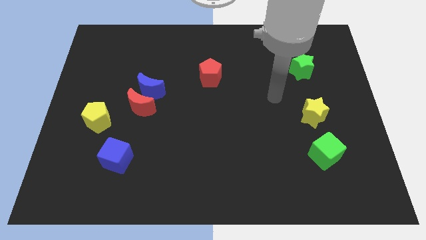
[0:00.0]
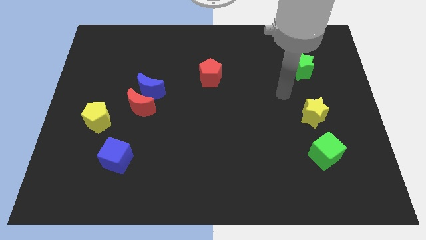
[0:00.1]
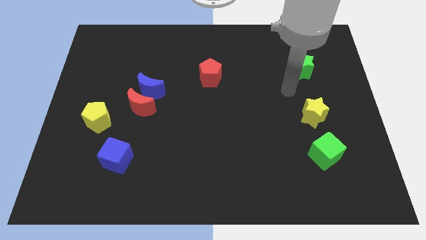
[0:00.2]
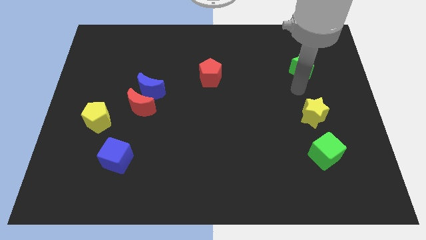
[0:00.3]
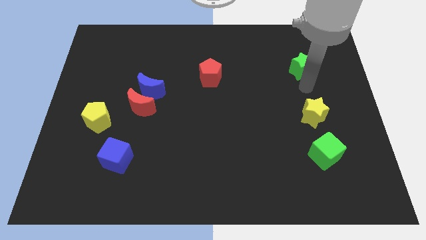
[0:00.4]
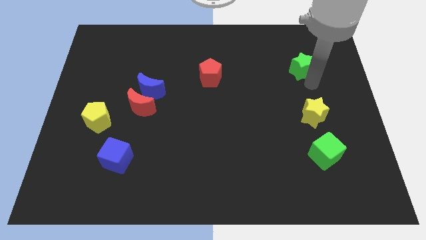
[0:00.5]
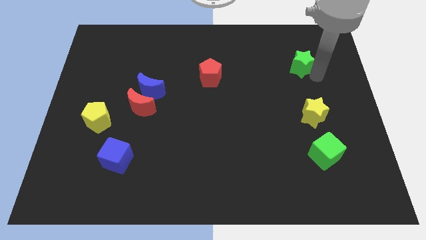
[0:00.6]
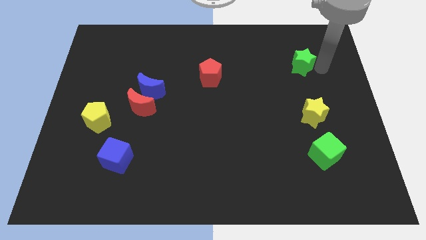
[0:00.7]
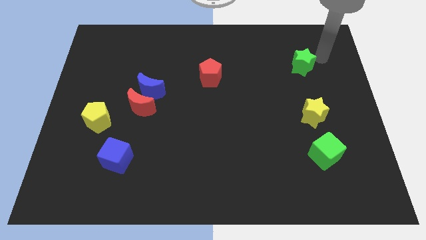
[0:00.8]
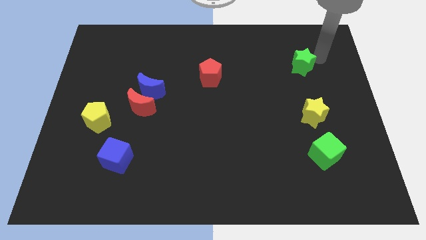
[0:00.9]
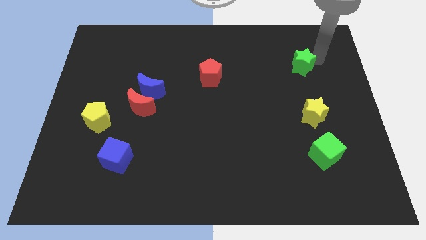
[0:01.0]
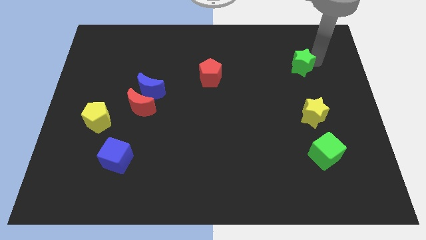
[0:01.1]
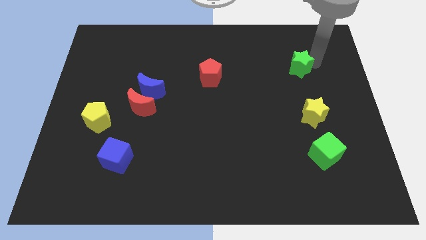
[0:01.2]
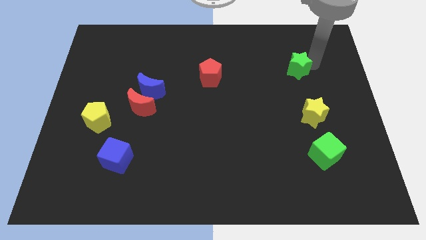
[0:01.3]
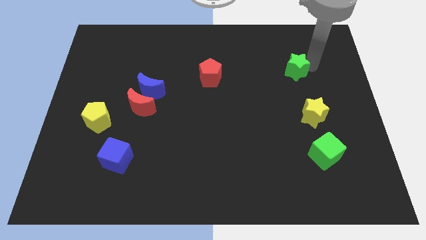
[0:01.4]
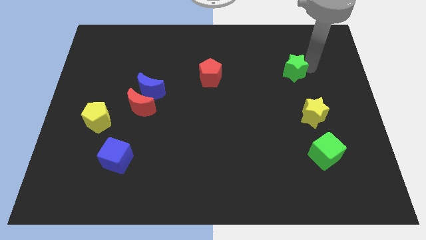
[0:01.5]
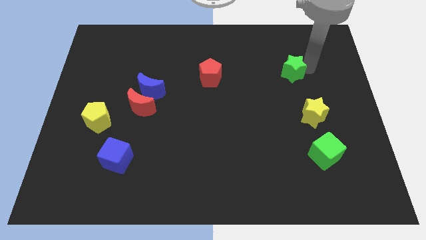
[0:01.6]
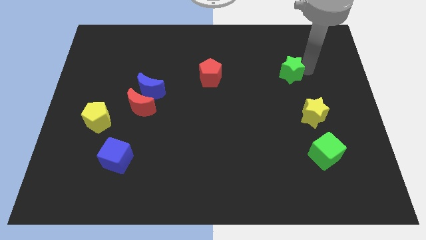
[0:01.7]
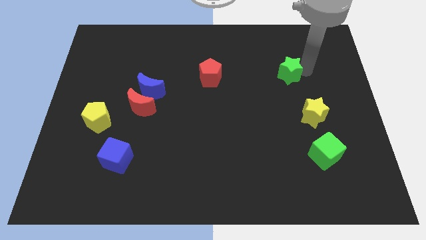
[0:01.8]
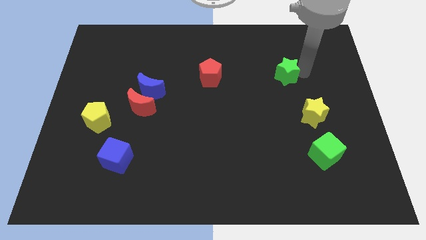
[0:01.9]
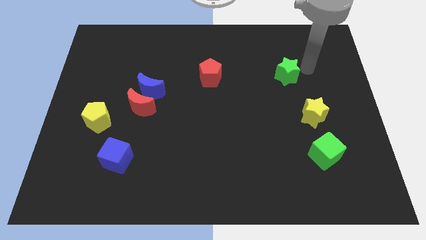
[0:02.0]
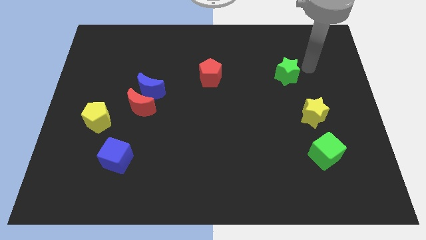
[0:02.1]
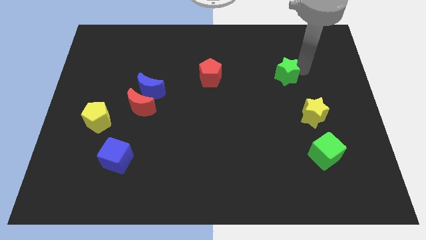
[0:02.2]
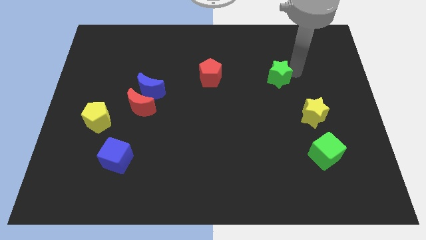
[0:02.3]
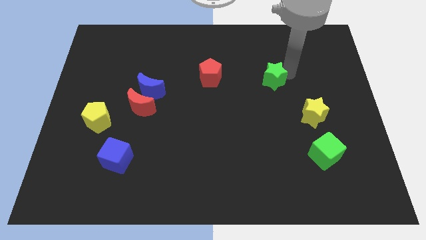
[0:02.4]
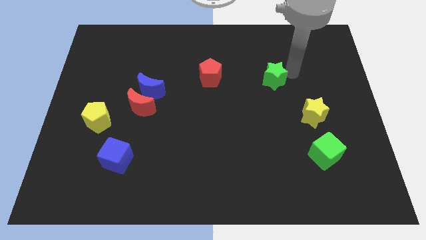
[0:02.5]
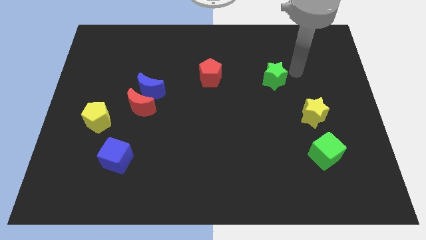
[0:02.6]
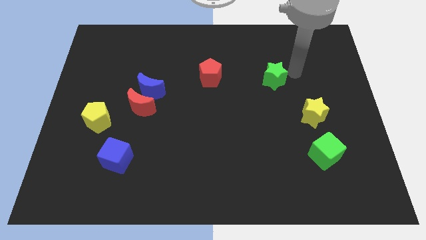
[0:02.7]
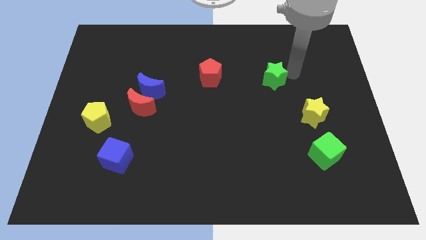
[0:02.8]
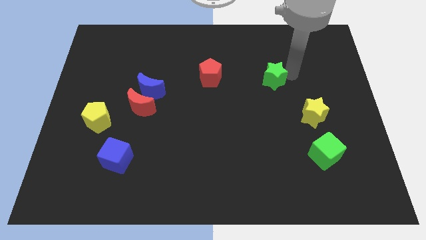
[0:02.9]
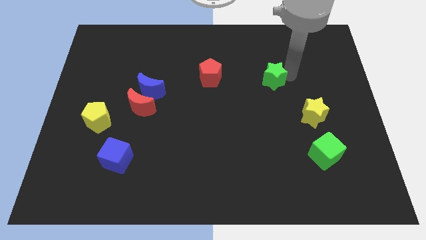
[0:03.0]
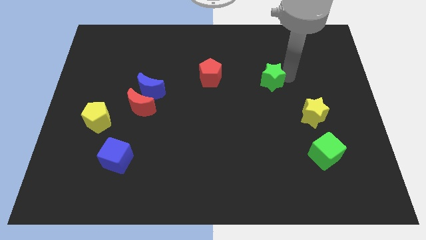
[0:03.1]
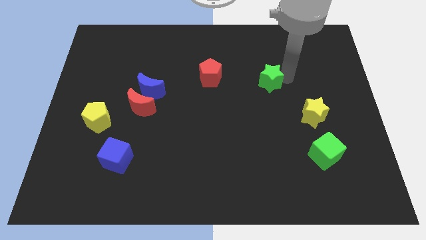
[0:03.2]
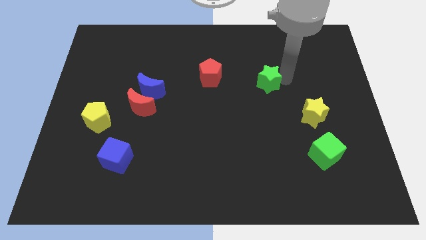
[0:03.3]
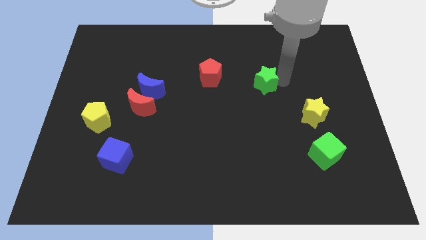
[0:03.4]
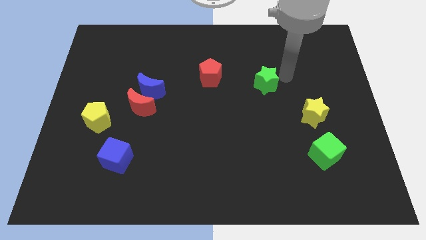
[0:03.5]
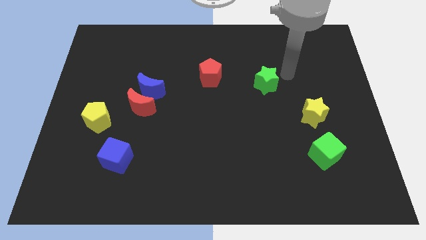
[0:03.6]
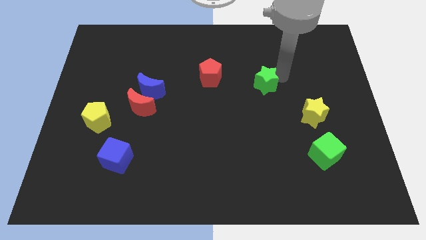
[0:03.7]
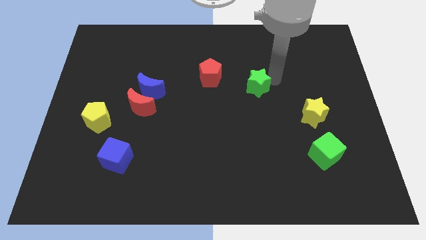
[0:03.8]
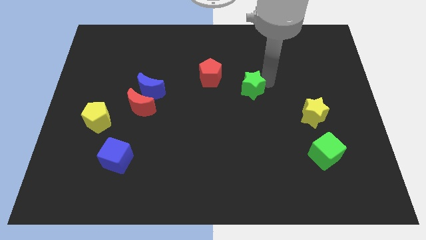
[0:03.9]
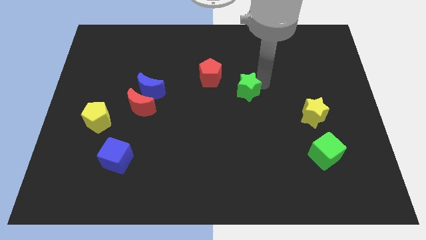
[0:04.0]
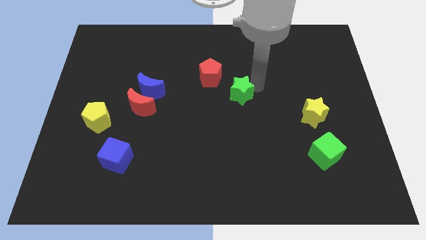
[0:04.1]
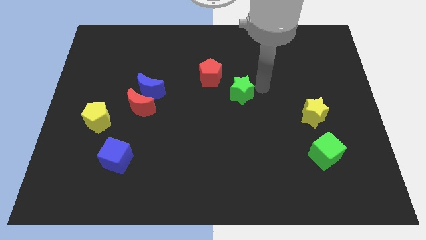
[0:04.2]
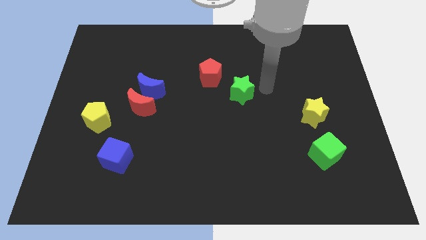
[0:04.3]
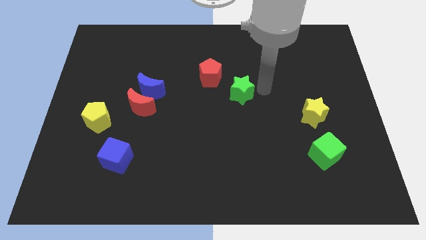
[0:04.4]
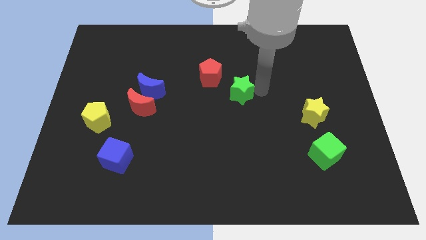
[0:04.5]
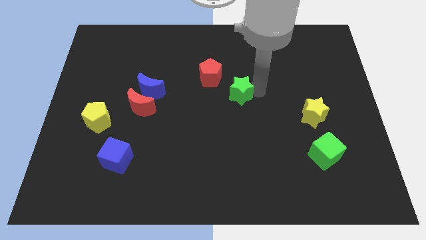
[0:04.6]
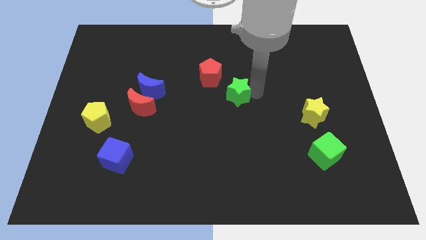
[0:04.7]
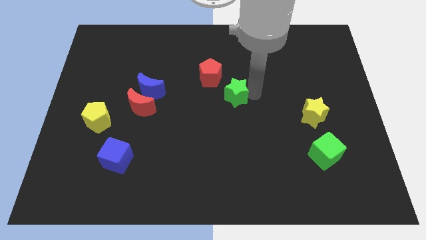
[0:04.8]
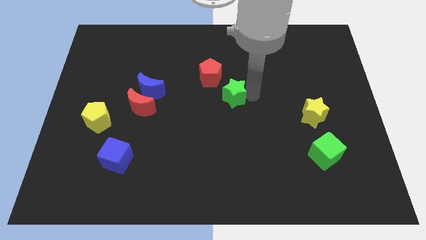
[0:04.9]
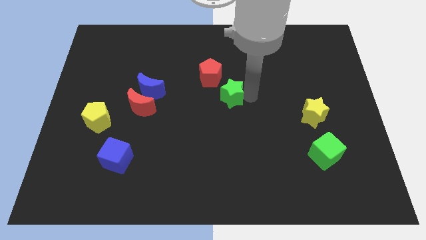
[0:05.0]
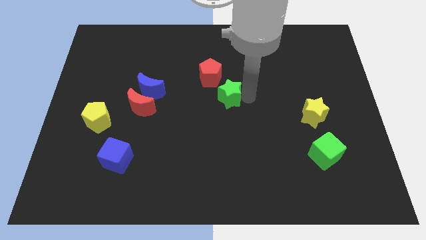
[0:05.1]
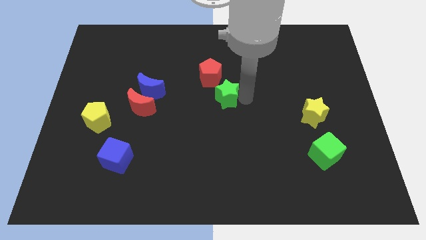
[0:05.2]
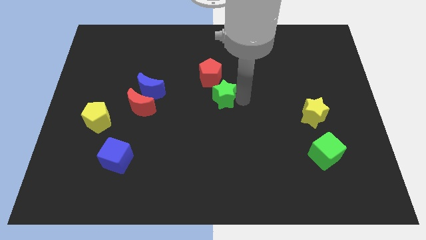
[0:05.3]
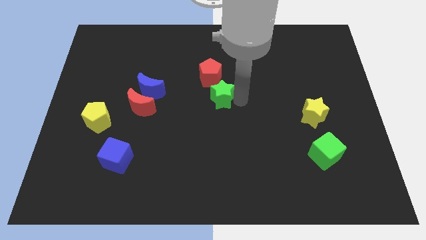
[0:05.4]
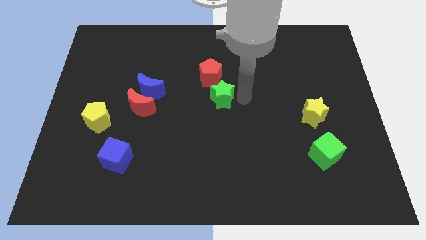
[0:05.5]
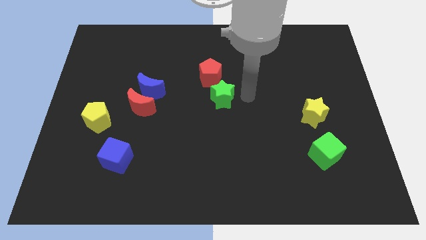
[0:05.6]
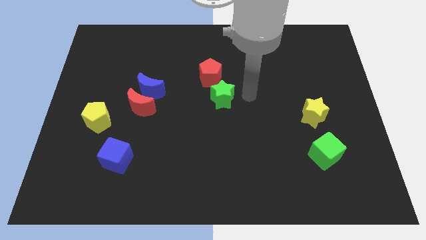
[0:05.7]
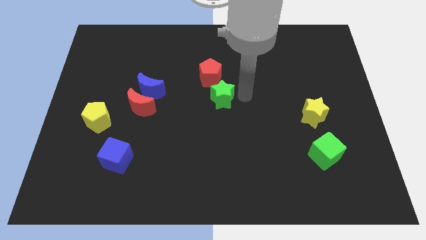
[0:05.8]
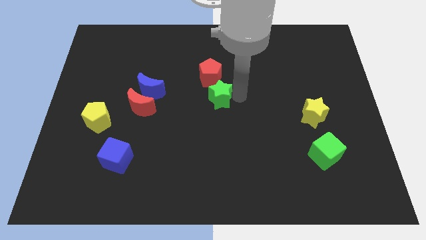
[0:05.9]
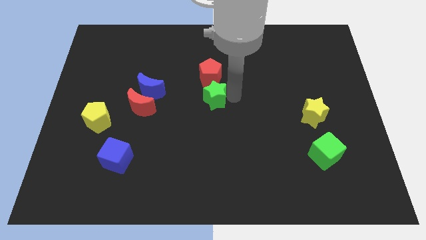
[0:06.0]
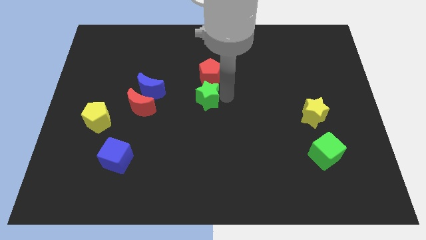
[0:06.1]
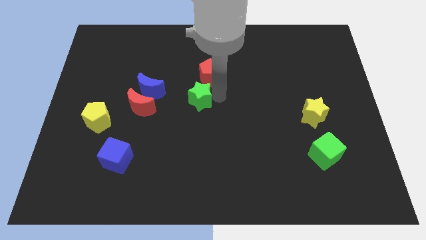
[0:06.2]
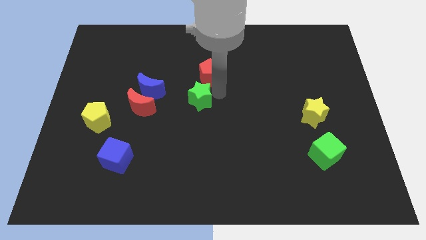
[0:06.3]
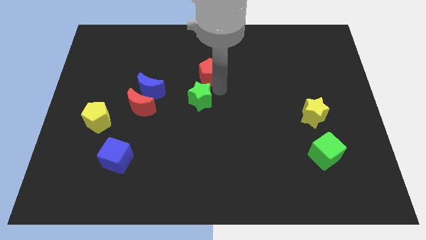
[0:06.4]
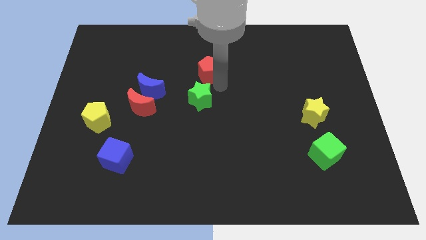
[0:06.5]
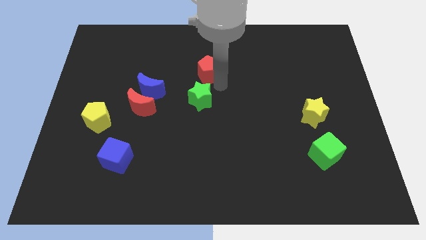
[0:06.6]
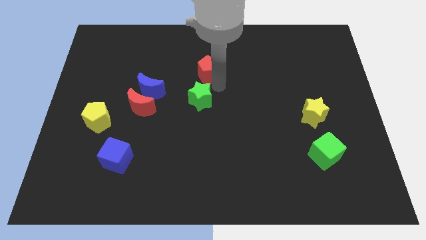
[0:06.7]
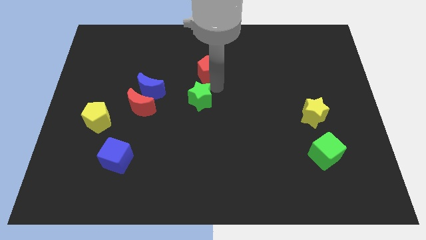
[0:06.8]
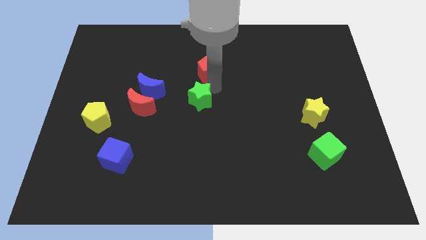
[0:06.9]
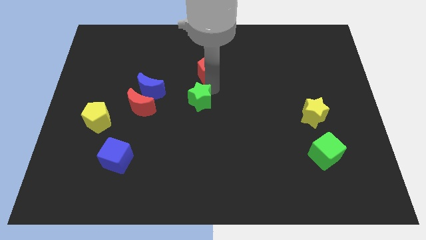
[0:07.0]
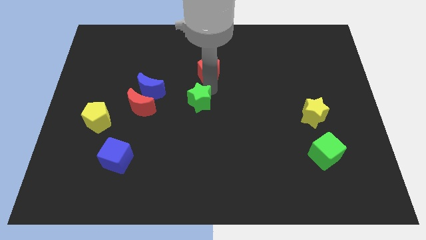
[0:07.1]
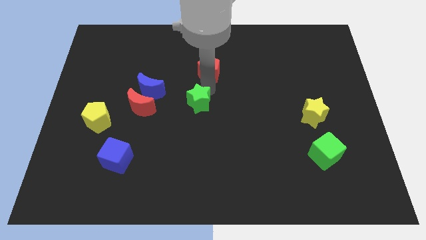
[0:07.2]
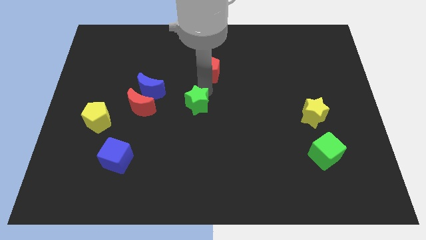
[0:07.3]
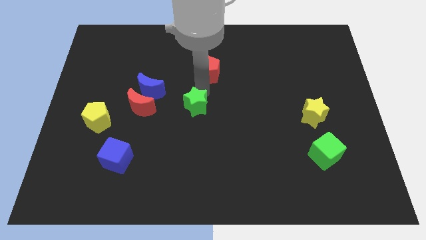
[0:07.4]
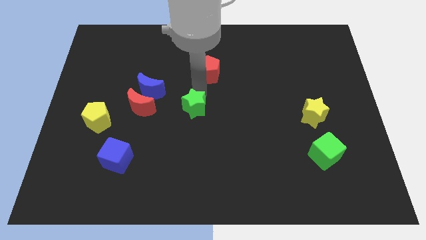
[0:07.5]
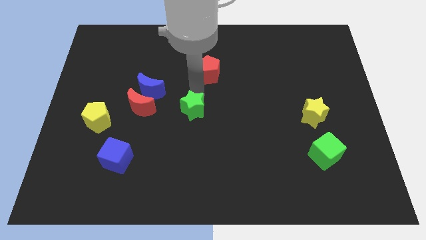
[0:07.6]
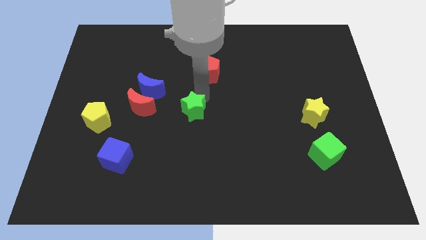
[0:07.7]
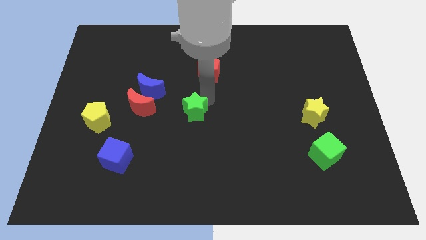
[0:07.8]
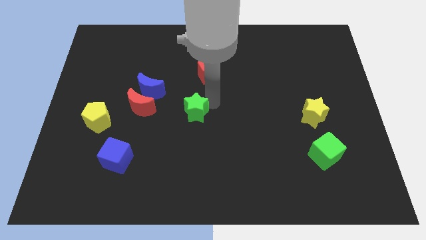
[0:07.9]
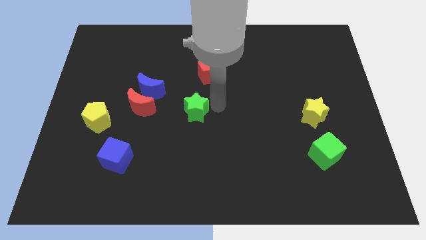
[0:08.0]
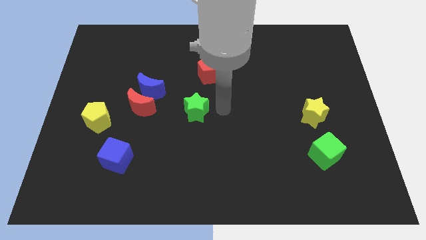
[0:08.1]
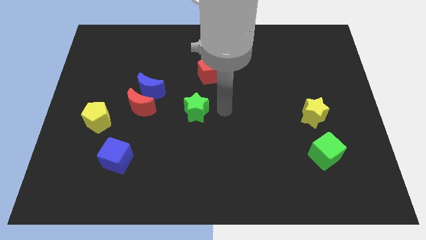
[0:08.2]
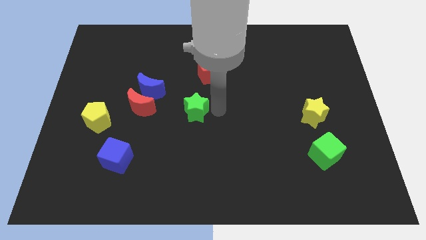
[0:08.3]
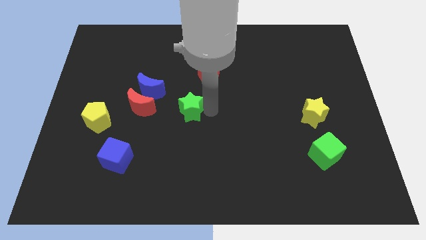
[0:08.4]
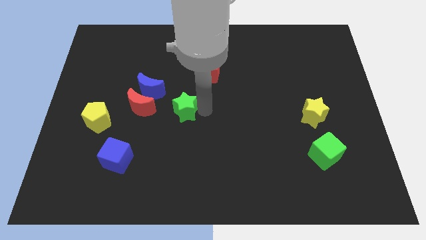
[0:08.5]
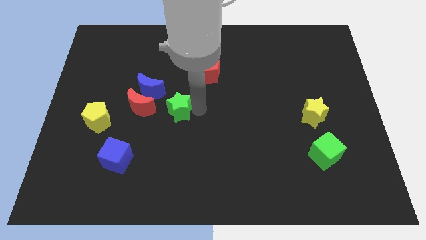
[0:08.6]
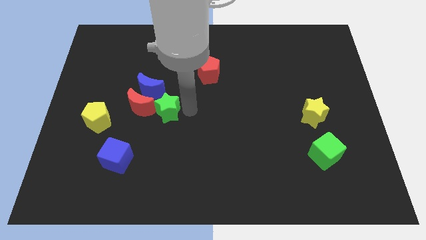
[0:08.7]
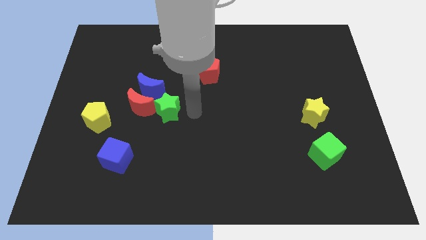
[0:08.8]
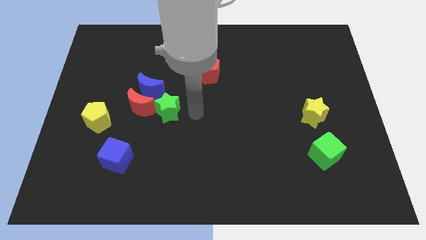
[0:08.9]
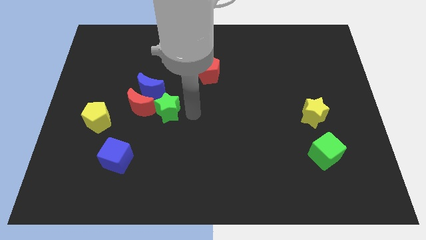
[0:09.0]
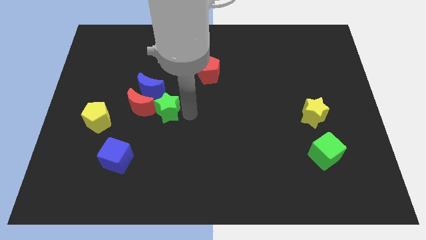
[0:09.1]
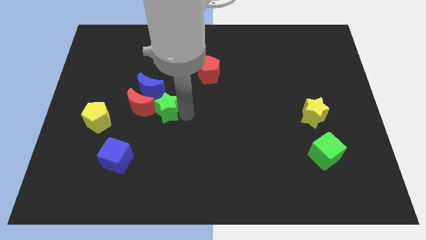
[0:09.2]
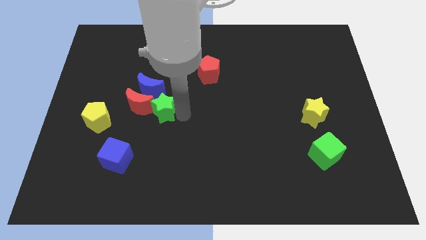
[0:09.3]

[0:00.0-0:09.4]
push the green star close to the red moon
